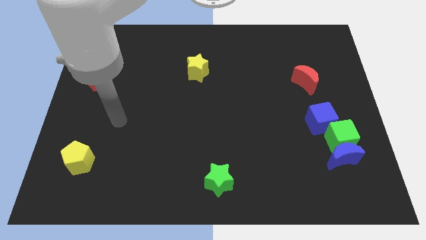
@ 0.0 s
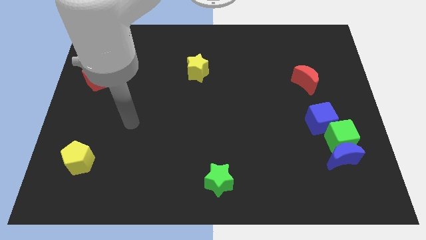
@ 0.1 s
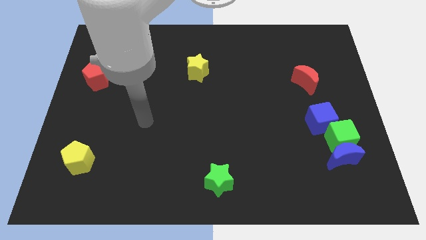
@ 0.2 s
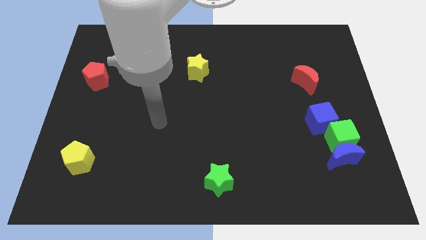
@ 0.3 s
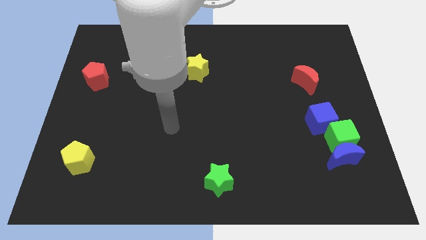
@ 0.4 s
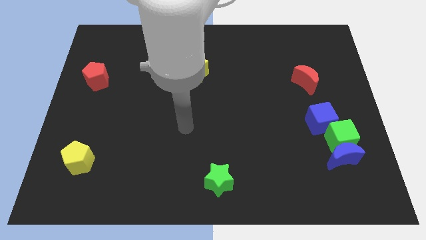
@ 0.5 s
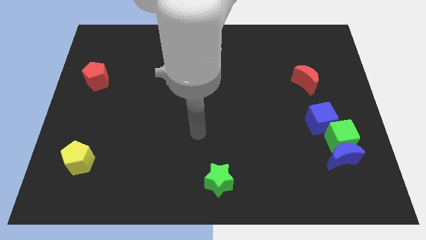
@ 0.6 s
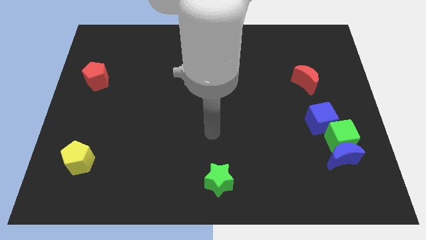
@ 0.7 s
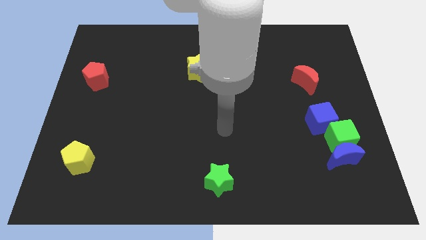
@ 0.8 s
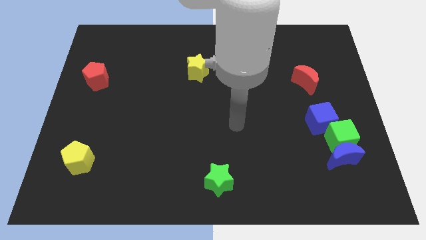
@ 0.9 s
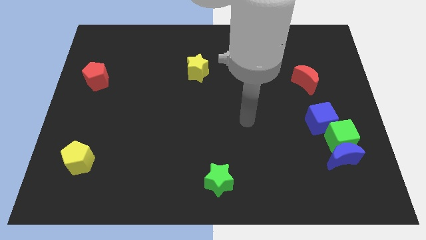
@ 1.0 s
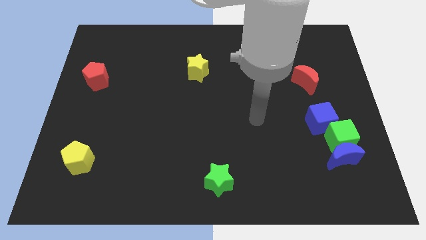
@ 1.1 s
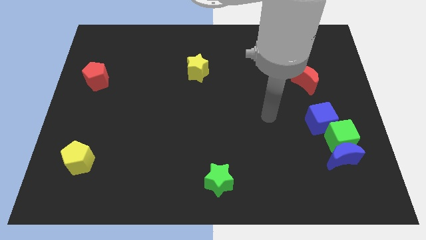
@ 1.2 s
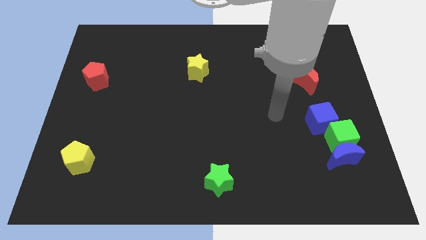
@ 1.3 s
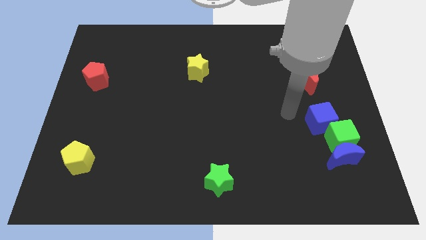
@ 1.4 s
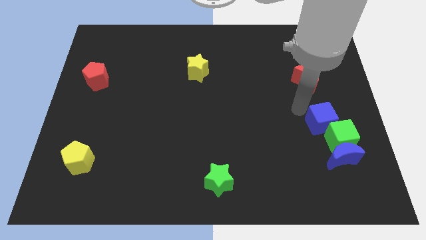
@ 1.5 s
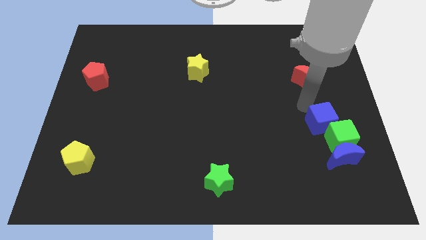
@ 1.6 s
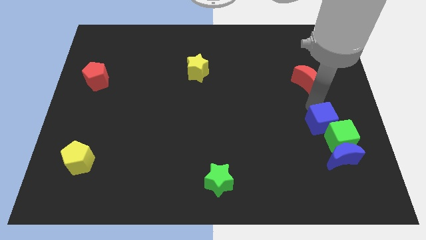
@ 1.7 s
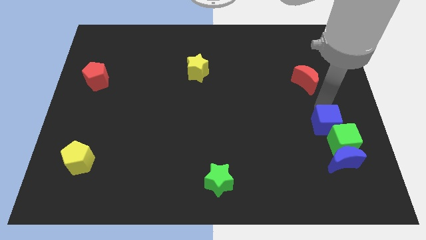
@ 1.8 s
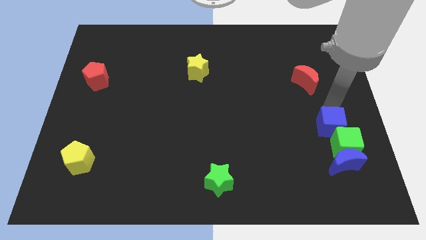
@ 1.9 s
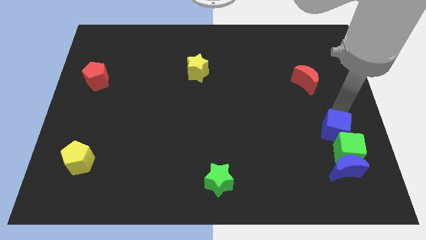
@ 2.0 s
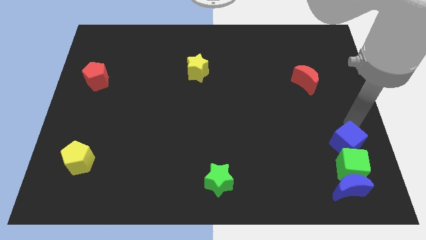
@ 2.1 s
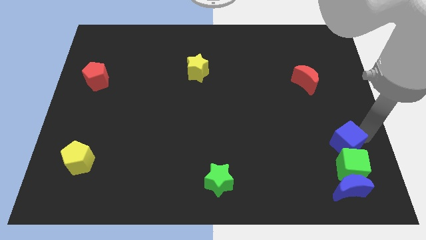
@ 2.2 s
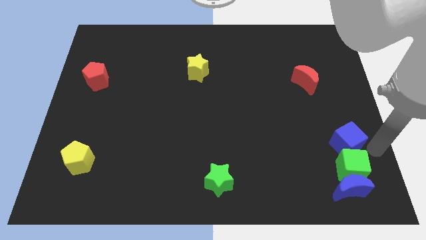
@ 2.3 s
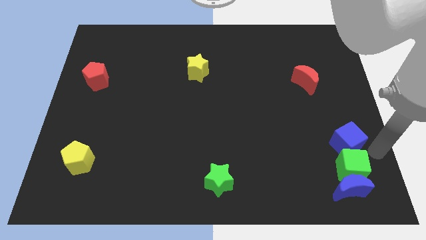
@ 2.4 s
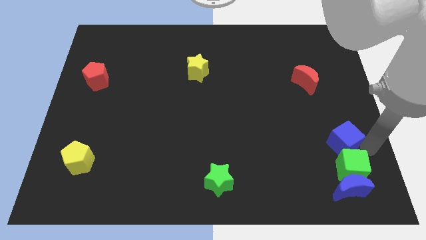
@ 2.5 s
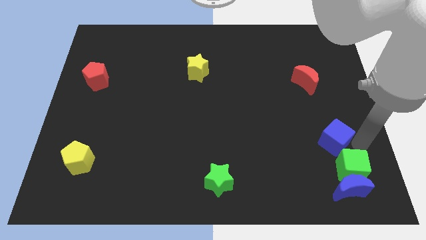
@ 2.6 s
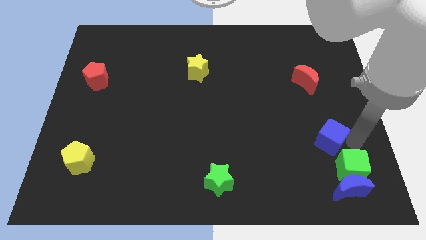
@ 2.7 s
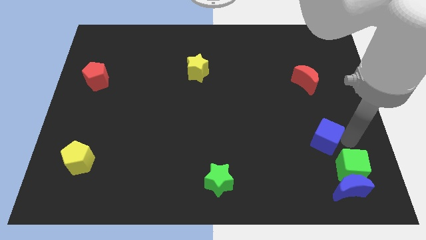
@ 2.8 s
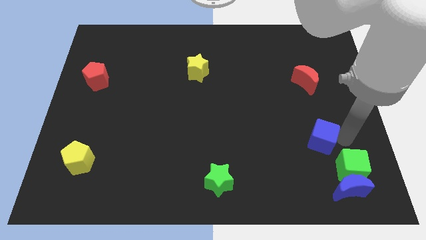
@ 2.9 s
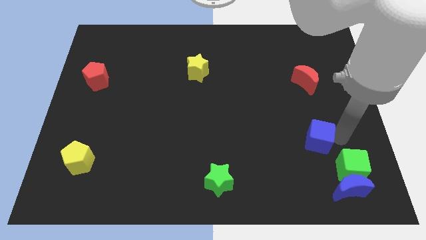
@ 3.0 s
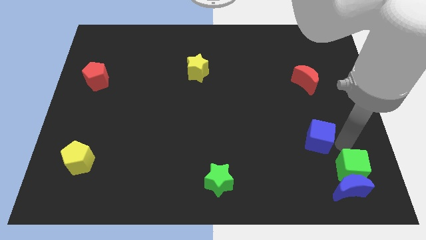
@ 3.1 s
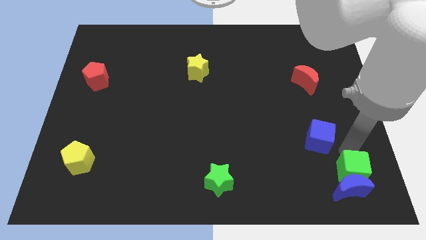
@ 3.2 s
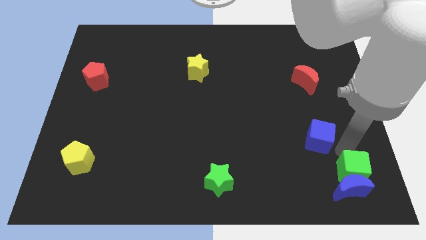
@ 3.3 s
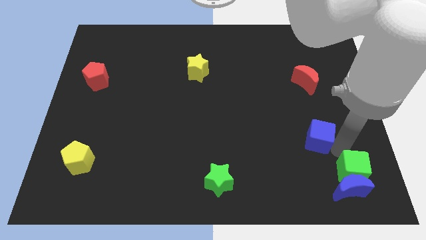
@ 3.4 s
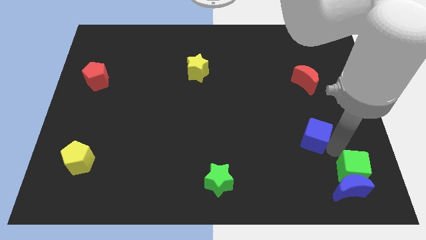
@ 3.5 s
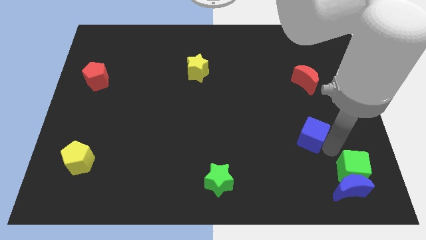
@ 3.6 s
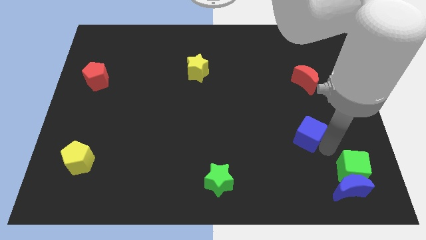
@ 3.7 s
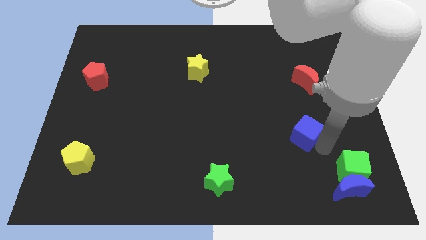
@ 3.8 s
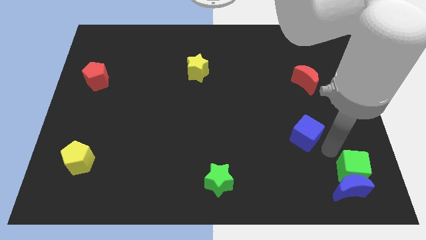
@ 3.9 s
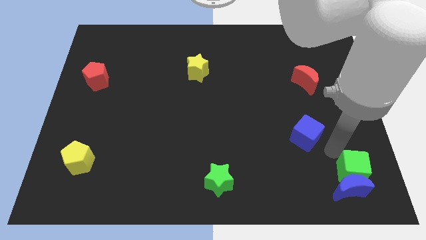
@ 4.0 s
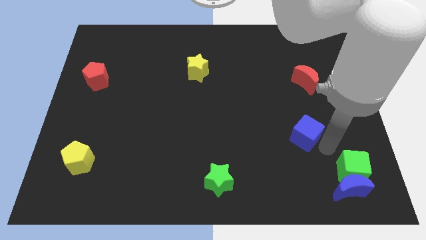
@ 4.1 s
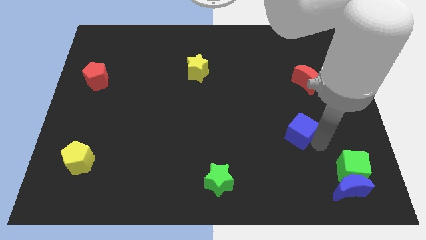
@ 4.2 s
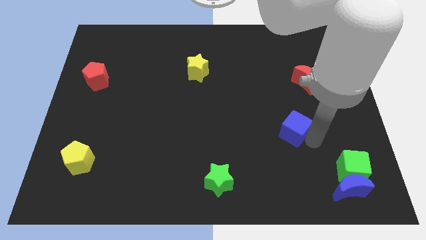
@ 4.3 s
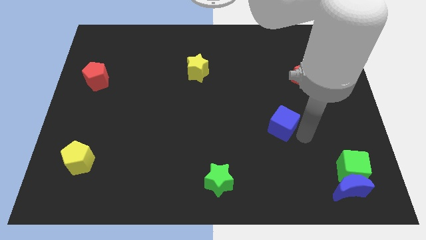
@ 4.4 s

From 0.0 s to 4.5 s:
slightly slide the blue cube to the left

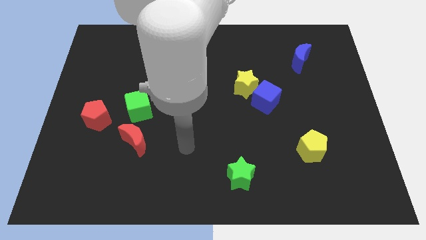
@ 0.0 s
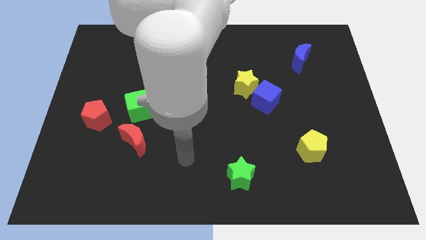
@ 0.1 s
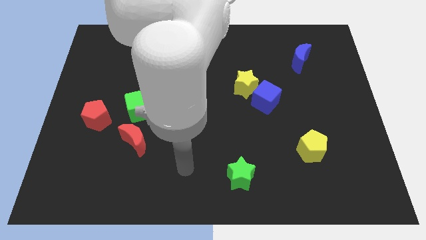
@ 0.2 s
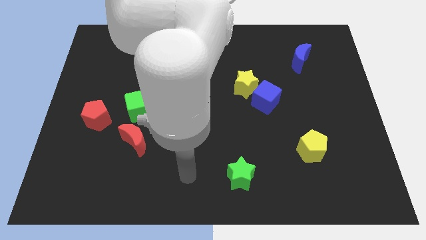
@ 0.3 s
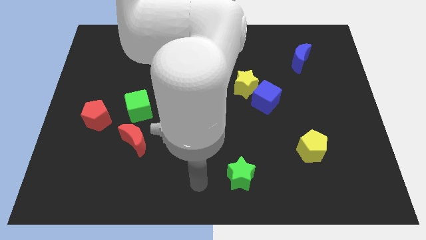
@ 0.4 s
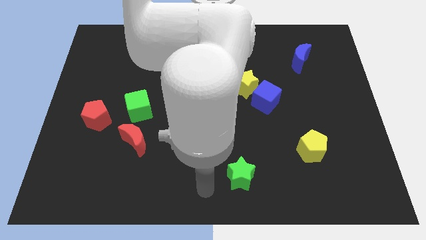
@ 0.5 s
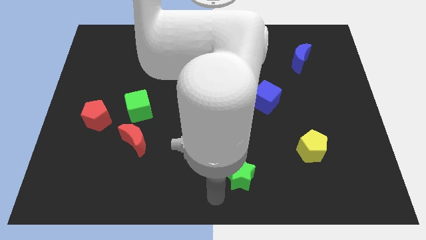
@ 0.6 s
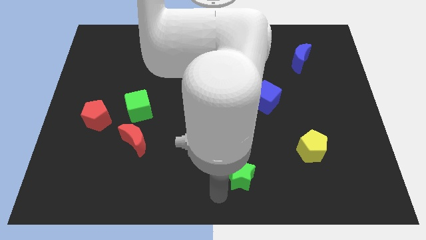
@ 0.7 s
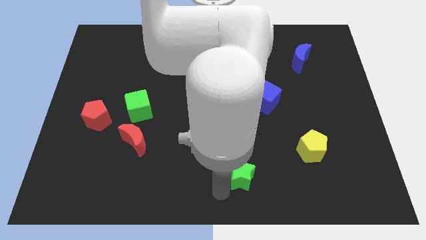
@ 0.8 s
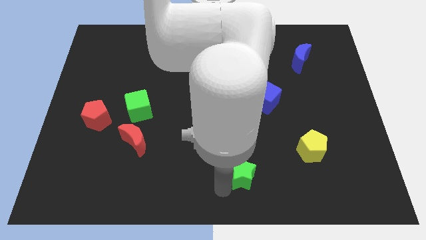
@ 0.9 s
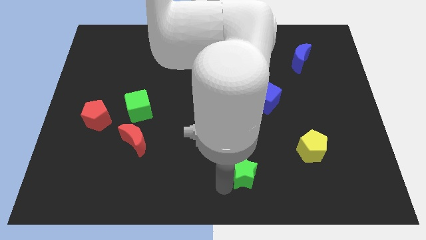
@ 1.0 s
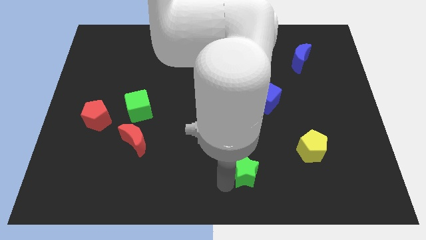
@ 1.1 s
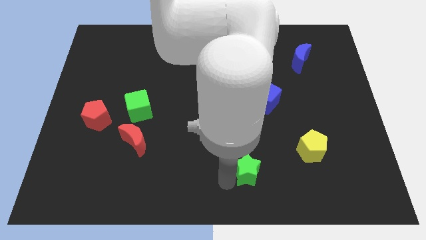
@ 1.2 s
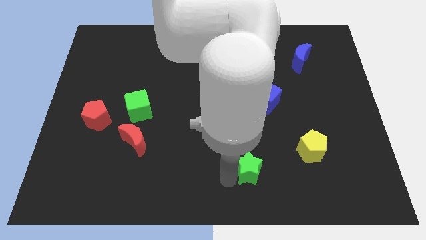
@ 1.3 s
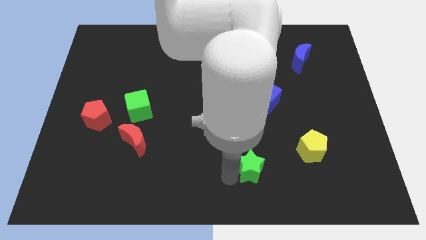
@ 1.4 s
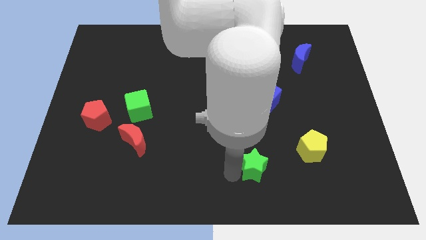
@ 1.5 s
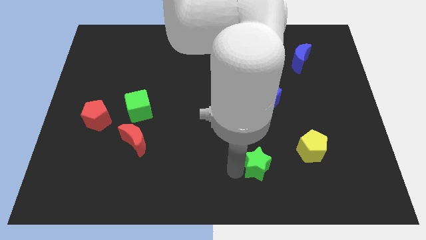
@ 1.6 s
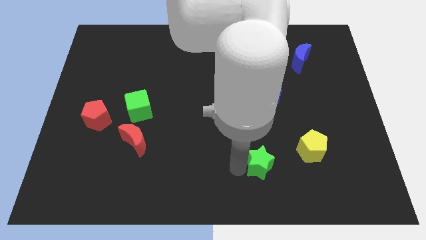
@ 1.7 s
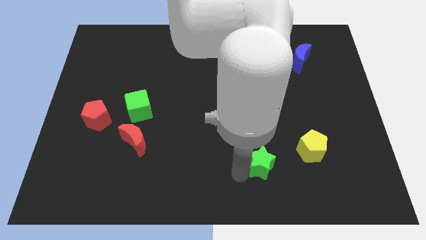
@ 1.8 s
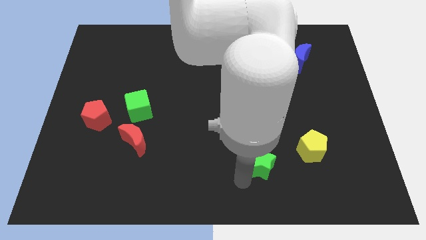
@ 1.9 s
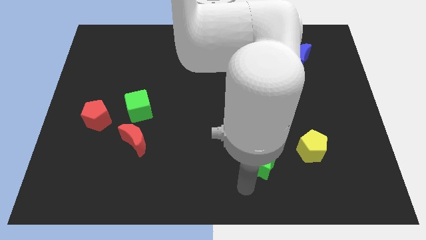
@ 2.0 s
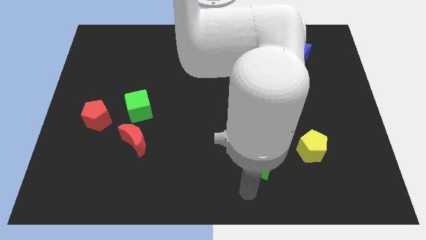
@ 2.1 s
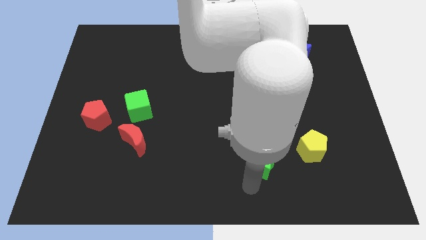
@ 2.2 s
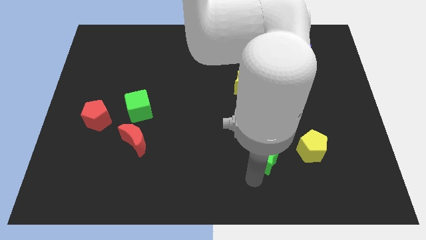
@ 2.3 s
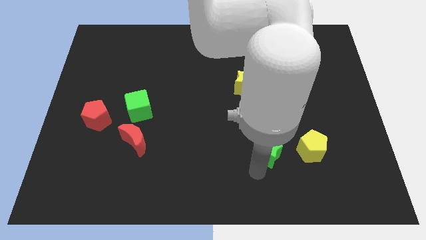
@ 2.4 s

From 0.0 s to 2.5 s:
push the green star up and then right a little

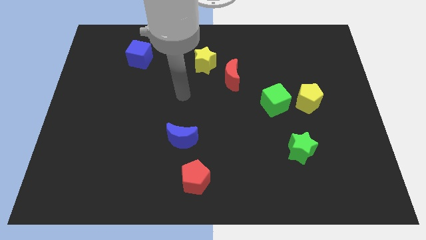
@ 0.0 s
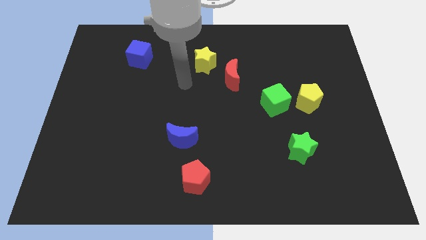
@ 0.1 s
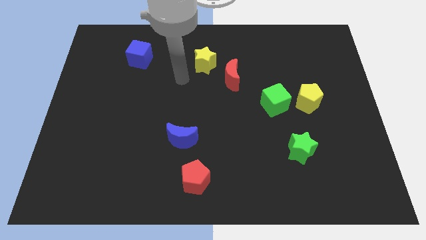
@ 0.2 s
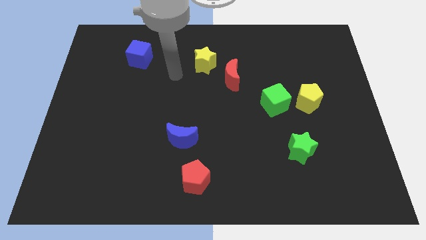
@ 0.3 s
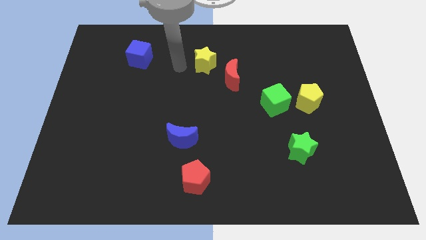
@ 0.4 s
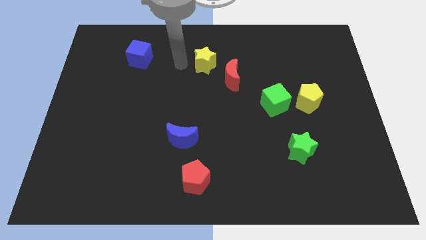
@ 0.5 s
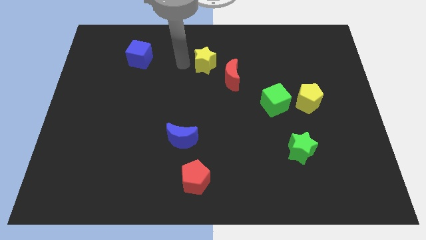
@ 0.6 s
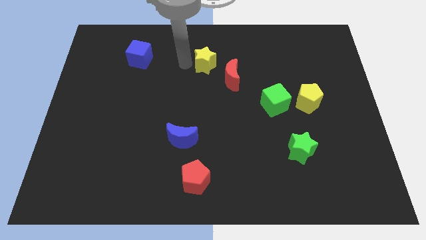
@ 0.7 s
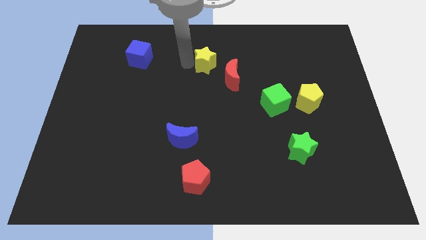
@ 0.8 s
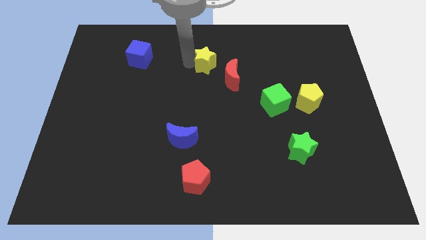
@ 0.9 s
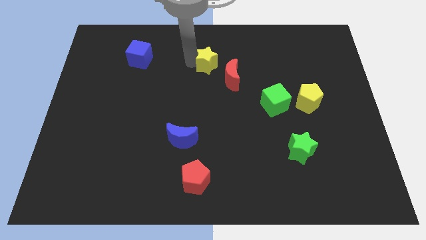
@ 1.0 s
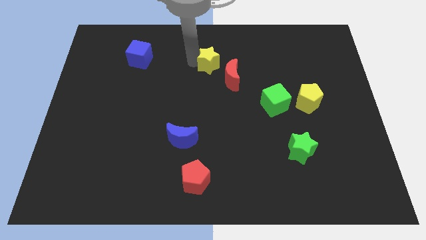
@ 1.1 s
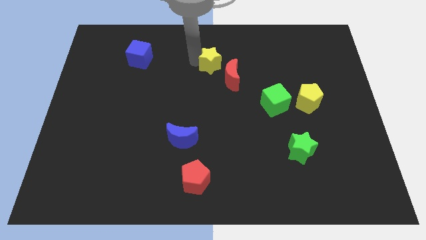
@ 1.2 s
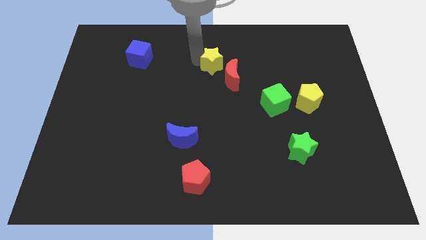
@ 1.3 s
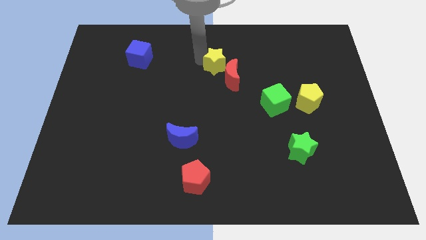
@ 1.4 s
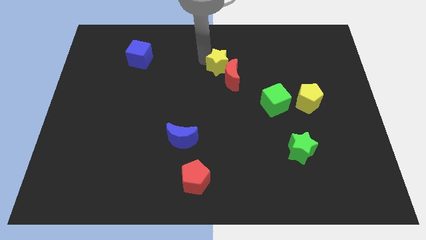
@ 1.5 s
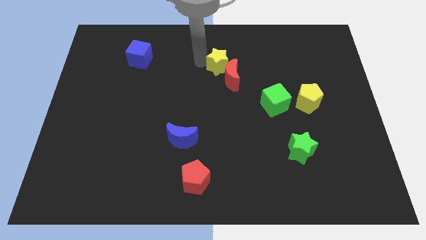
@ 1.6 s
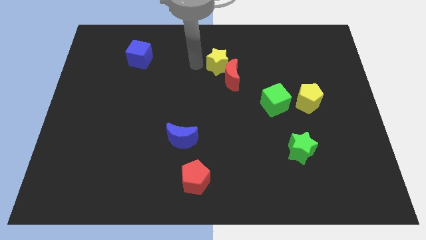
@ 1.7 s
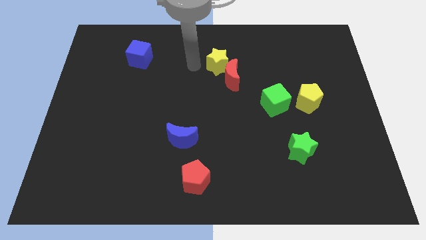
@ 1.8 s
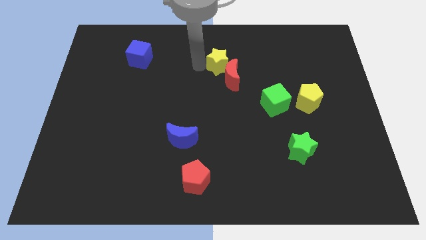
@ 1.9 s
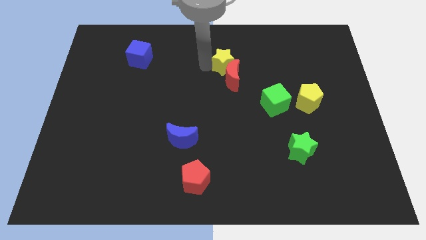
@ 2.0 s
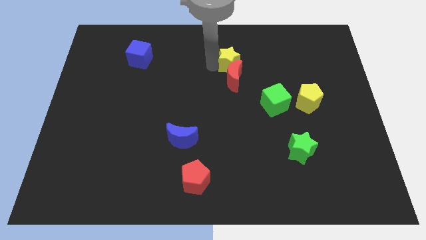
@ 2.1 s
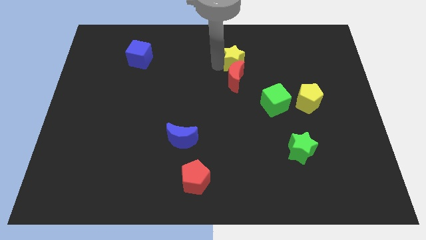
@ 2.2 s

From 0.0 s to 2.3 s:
move the yellow star slightly right
